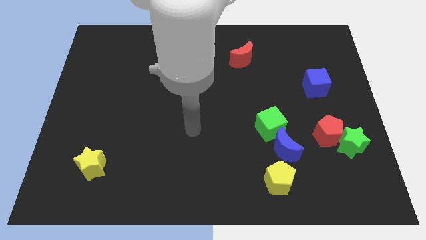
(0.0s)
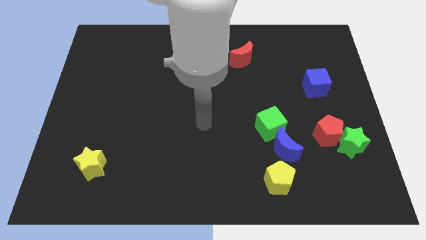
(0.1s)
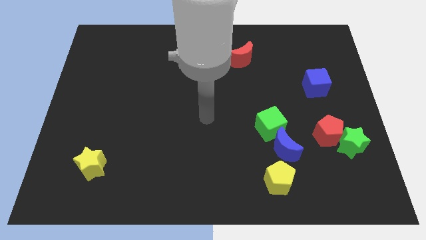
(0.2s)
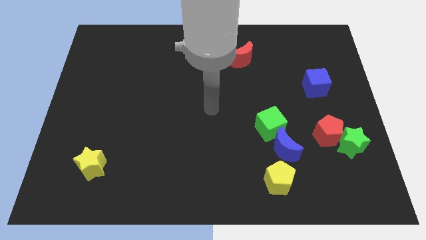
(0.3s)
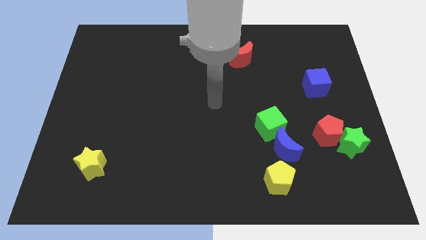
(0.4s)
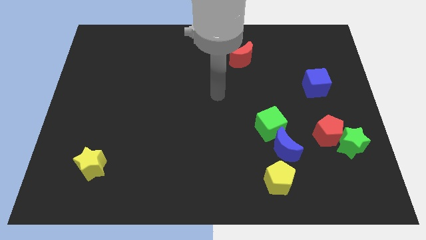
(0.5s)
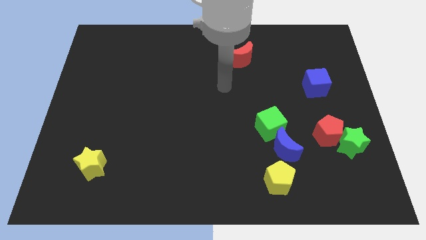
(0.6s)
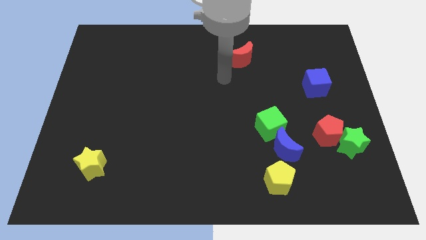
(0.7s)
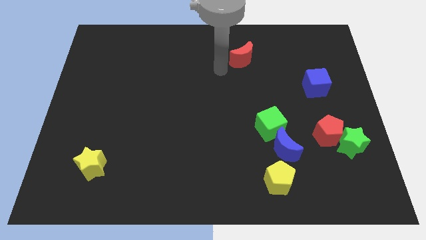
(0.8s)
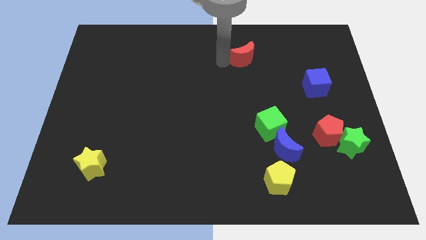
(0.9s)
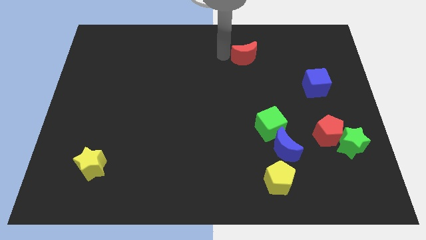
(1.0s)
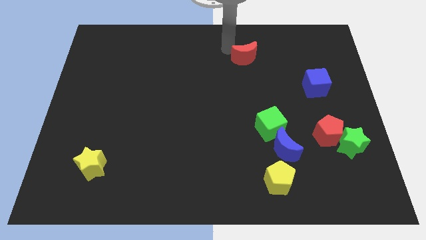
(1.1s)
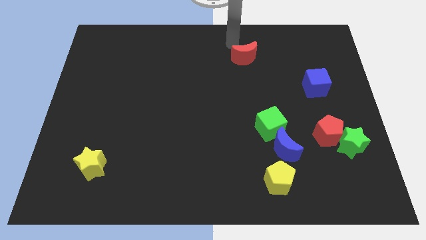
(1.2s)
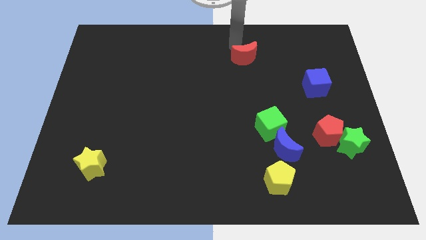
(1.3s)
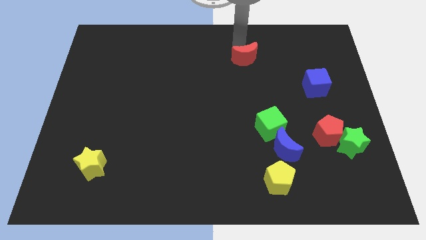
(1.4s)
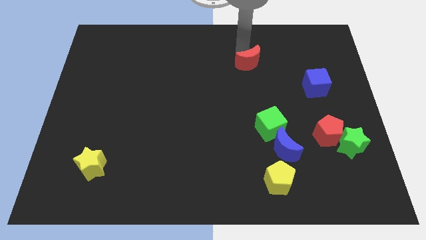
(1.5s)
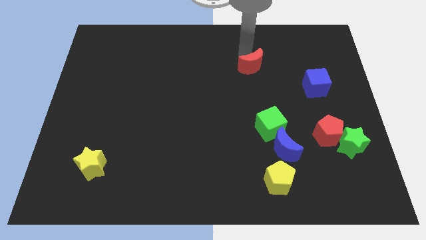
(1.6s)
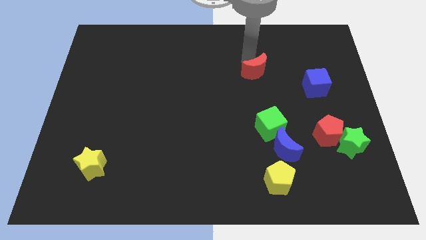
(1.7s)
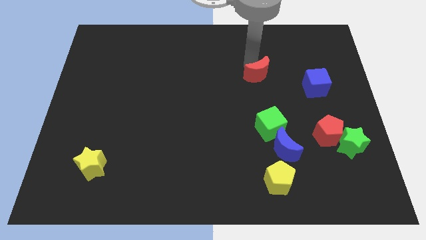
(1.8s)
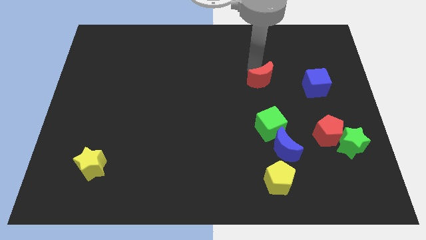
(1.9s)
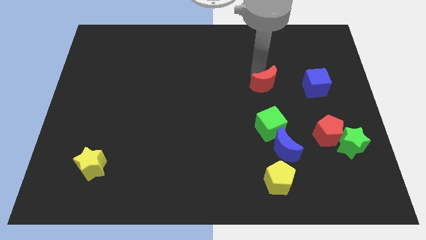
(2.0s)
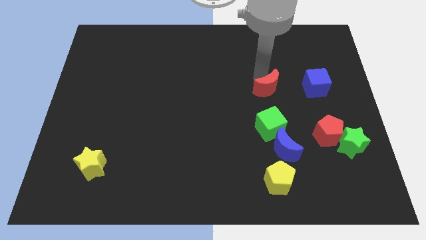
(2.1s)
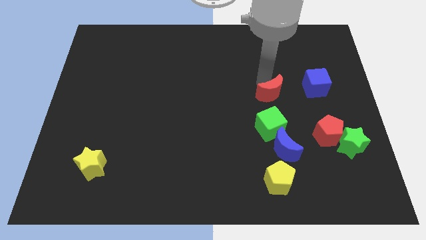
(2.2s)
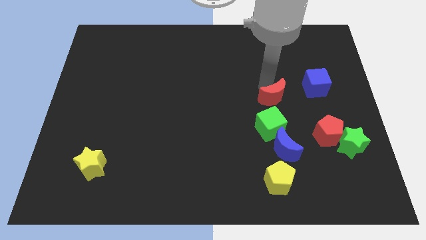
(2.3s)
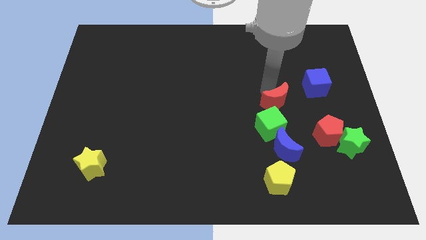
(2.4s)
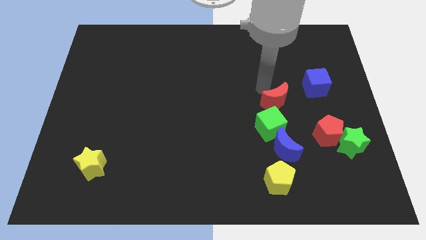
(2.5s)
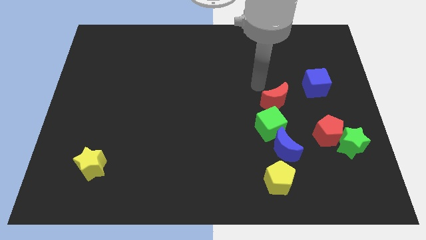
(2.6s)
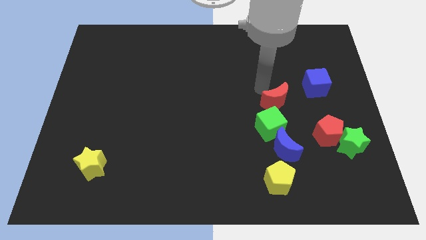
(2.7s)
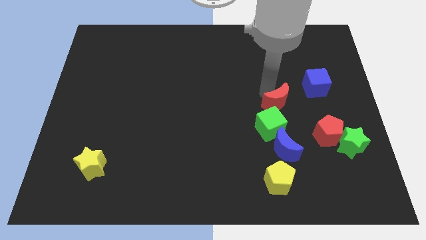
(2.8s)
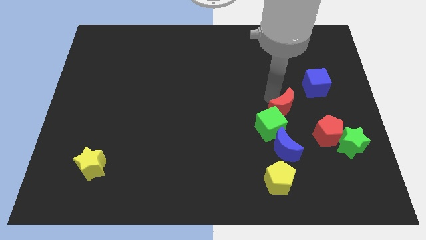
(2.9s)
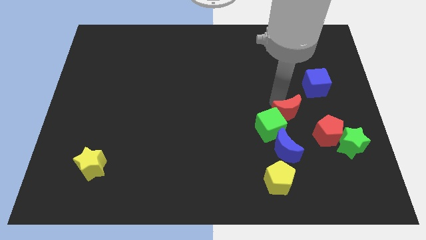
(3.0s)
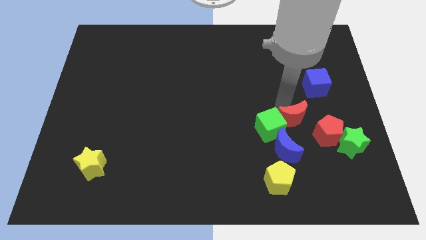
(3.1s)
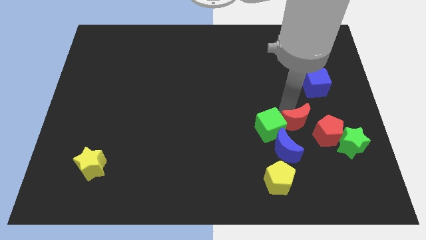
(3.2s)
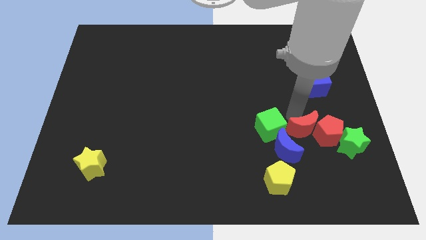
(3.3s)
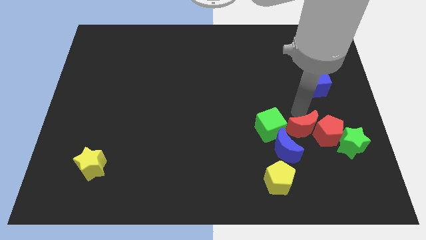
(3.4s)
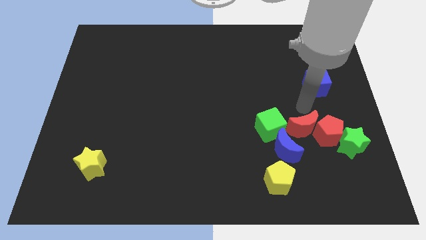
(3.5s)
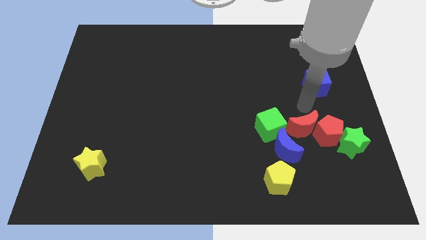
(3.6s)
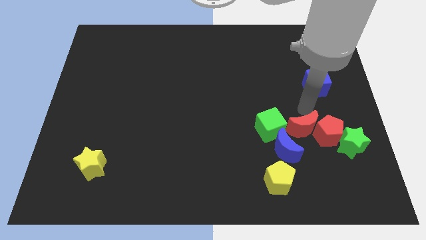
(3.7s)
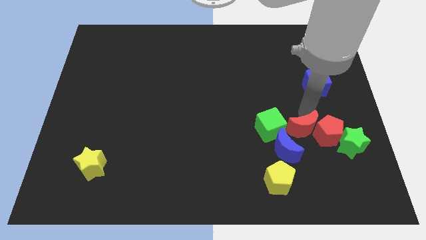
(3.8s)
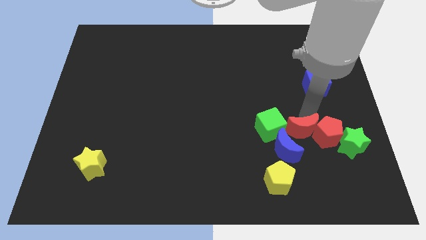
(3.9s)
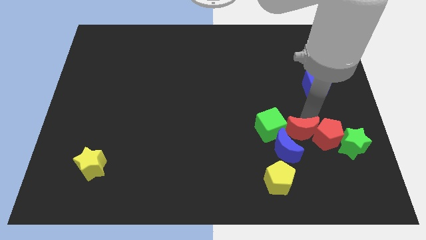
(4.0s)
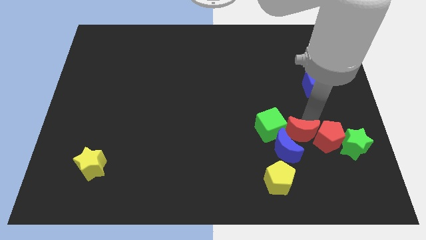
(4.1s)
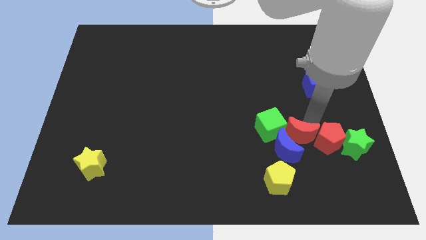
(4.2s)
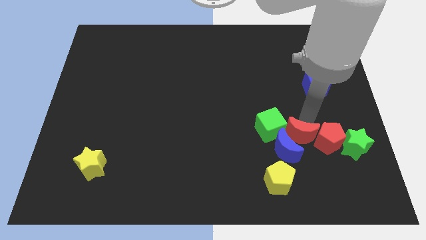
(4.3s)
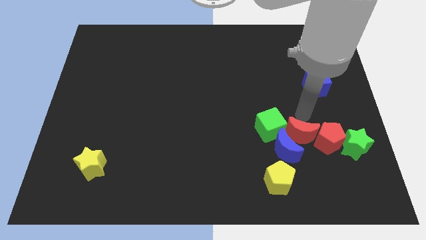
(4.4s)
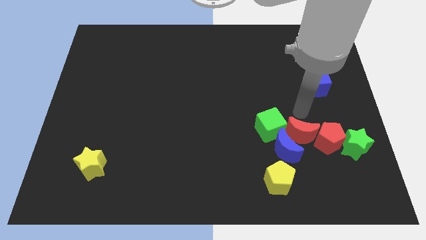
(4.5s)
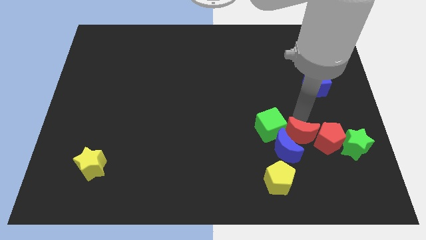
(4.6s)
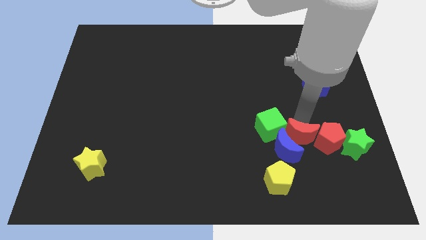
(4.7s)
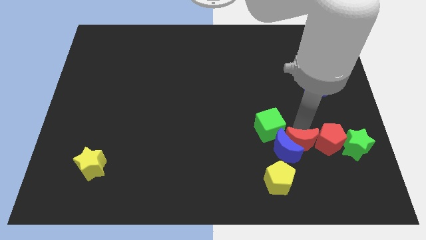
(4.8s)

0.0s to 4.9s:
push the red moon diagonally up and to the right of the yellow pentagon

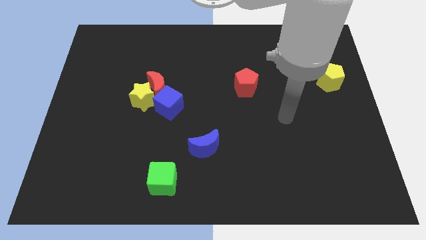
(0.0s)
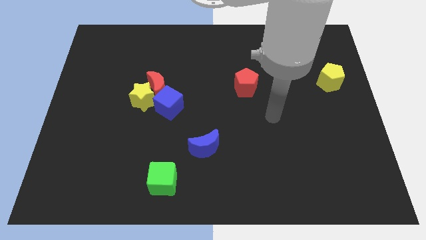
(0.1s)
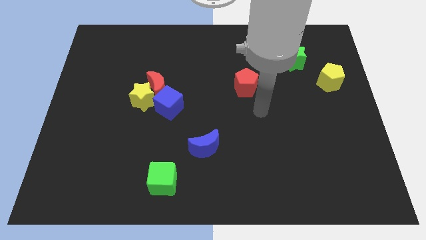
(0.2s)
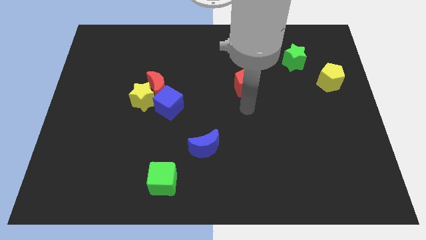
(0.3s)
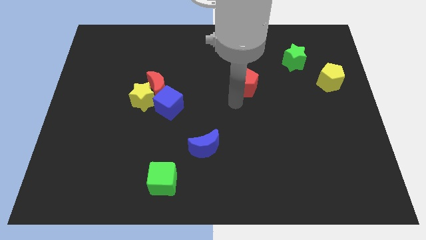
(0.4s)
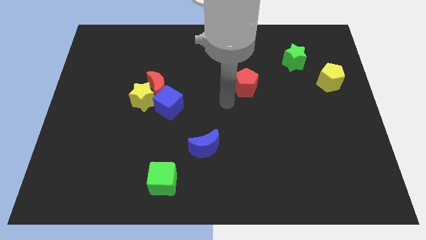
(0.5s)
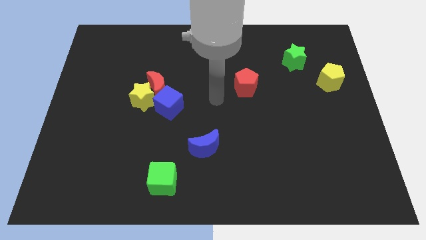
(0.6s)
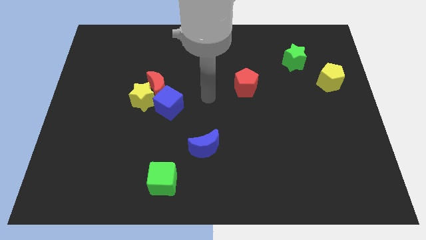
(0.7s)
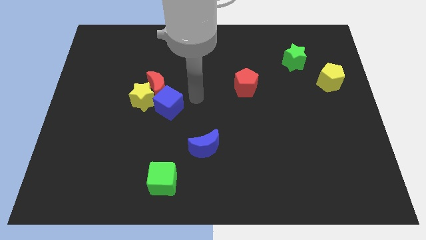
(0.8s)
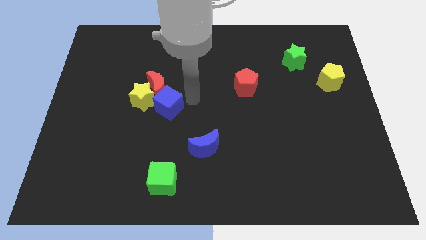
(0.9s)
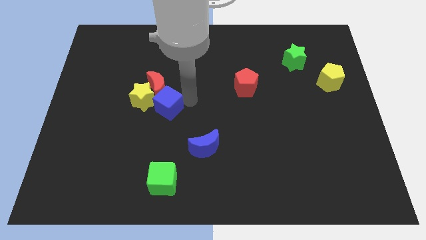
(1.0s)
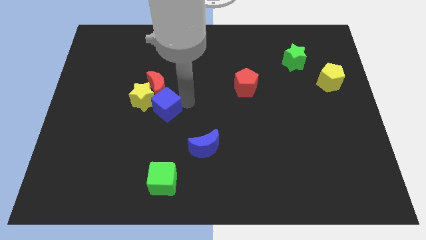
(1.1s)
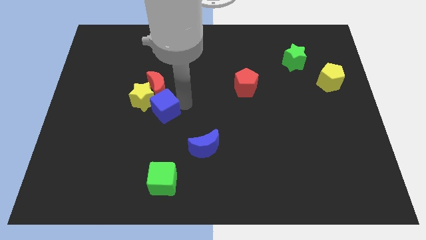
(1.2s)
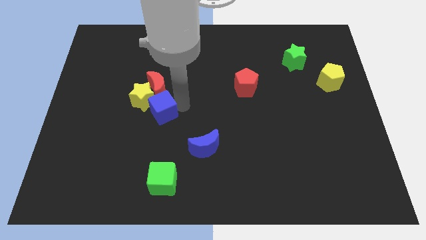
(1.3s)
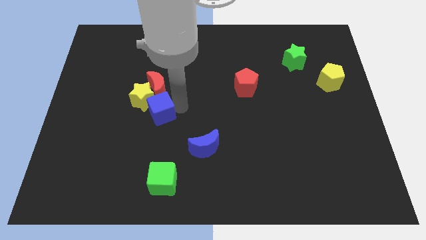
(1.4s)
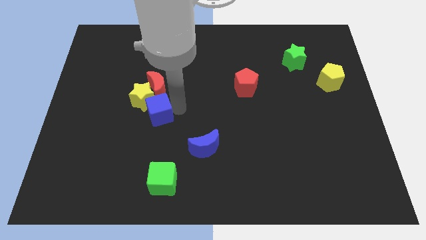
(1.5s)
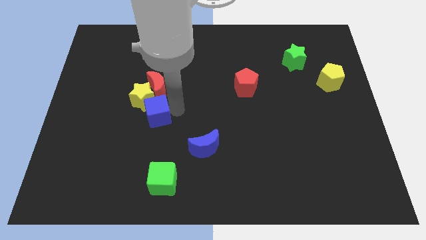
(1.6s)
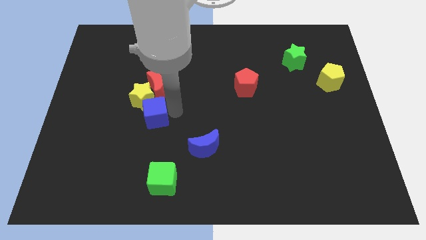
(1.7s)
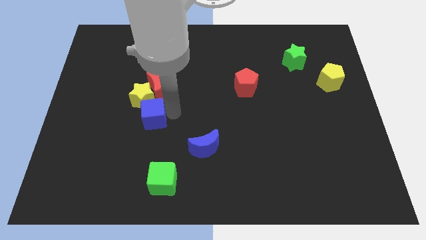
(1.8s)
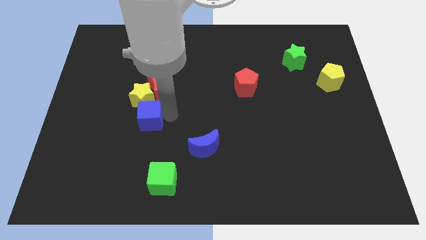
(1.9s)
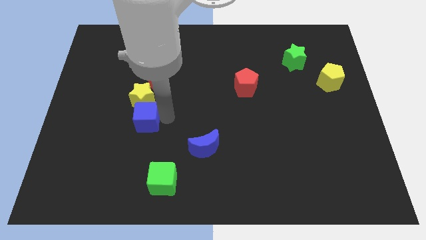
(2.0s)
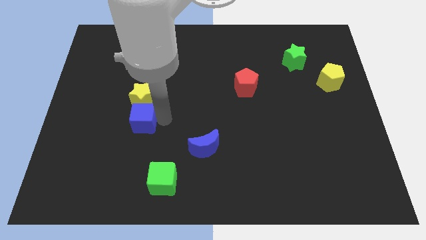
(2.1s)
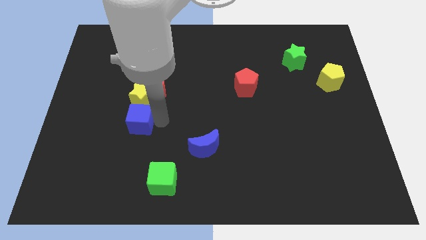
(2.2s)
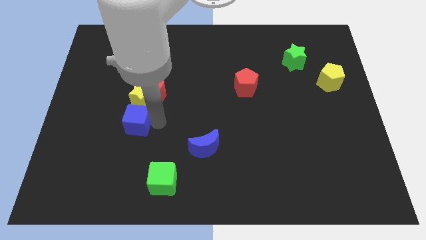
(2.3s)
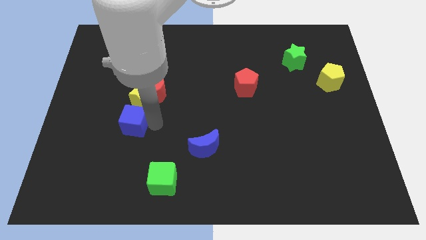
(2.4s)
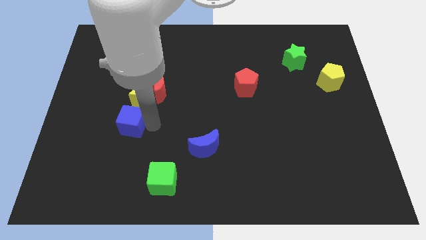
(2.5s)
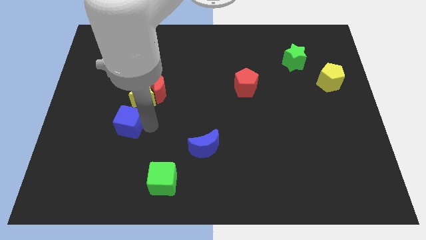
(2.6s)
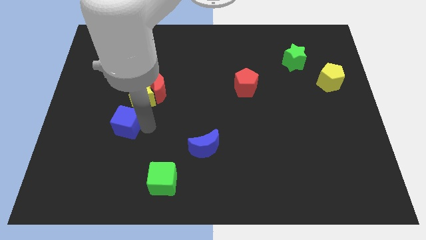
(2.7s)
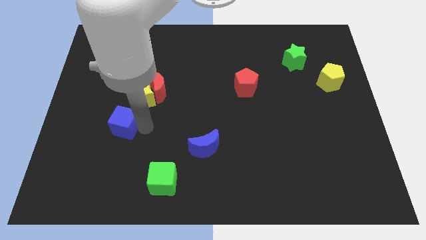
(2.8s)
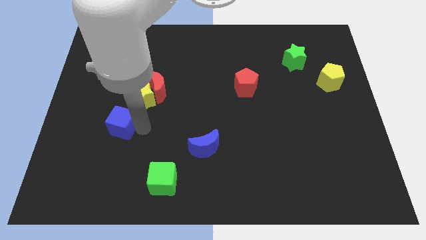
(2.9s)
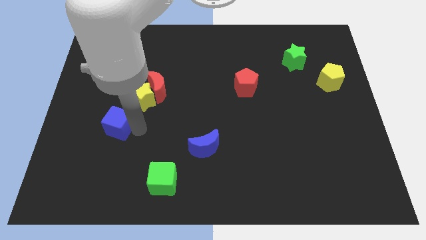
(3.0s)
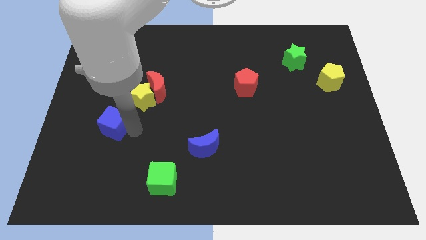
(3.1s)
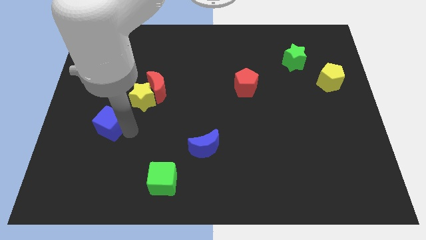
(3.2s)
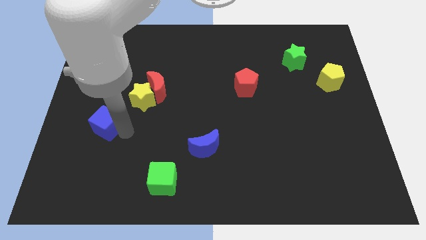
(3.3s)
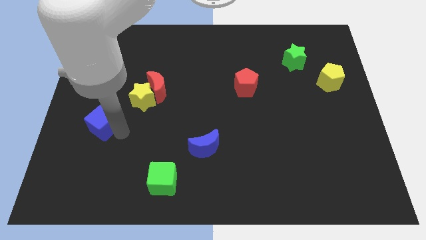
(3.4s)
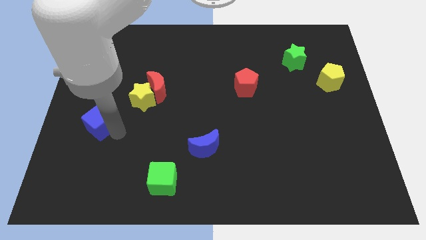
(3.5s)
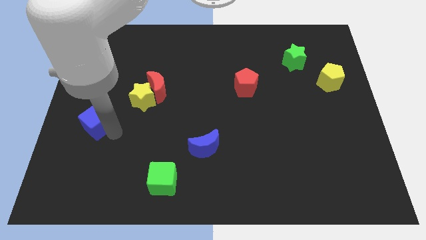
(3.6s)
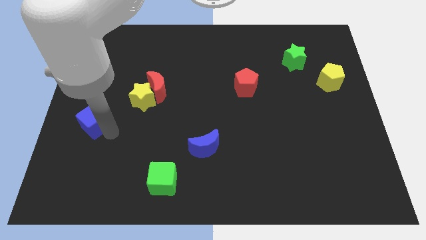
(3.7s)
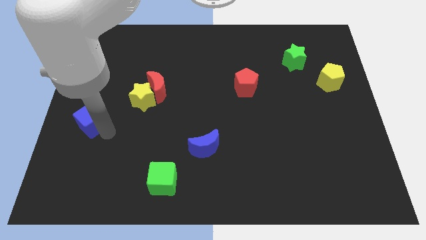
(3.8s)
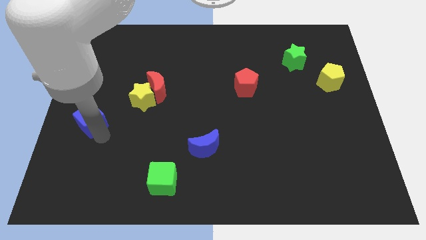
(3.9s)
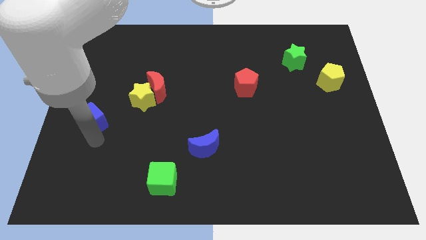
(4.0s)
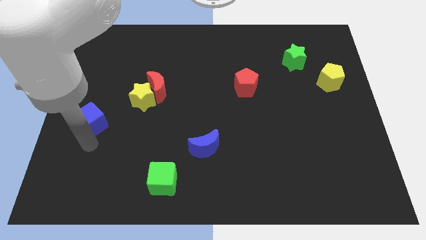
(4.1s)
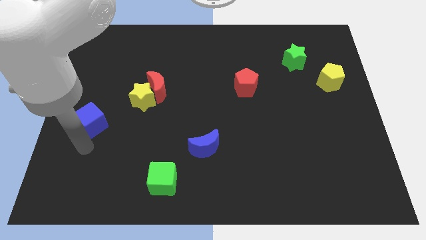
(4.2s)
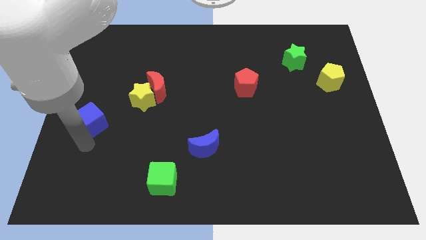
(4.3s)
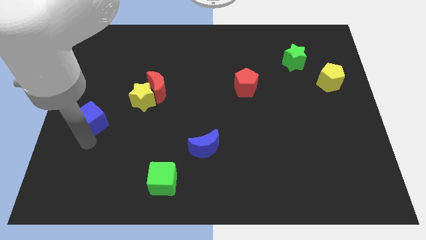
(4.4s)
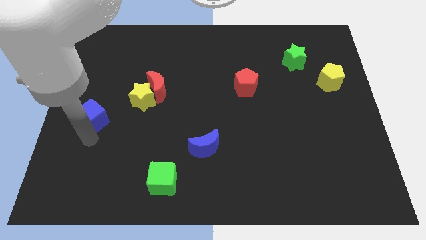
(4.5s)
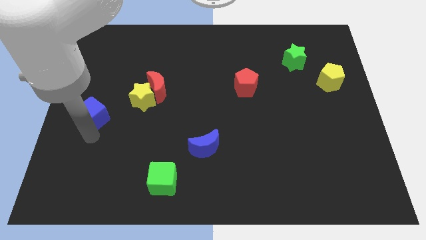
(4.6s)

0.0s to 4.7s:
push the blue cube to the left side of the yellow star
